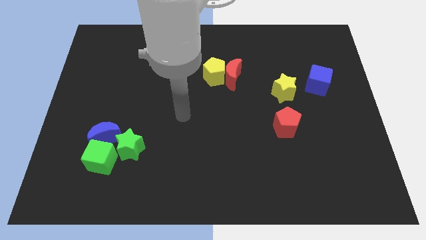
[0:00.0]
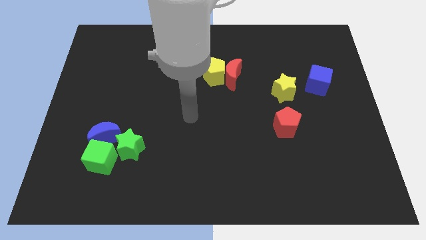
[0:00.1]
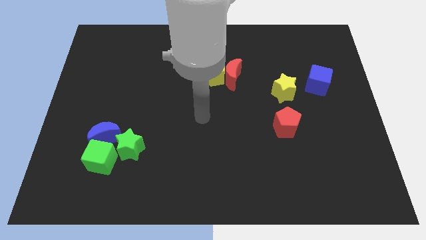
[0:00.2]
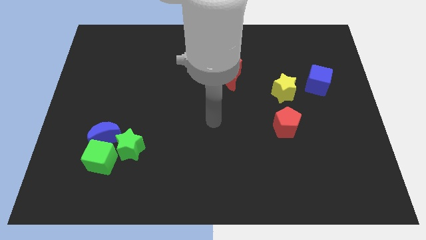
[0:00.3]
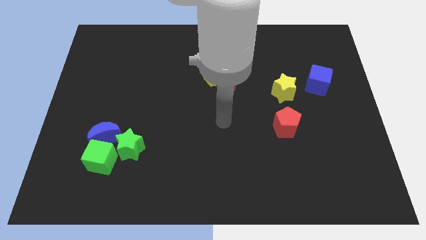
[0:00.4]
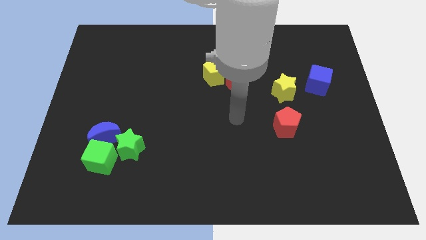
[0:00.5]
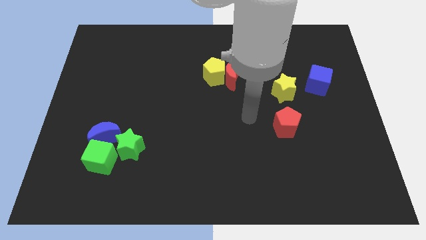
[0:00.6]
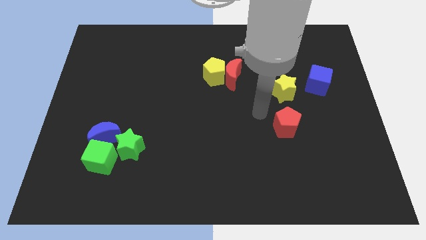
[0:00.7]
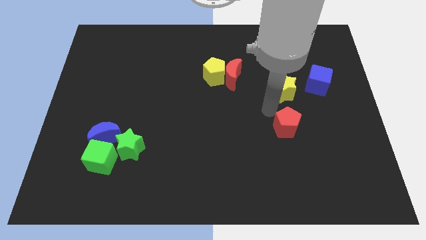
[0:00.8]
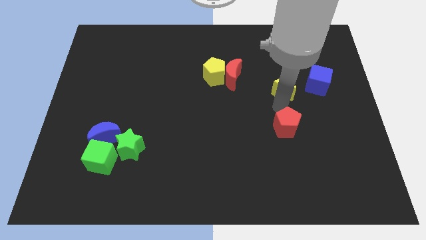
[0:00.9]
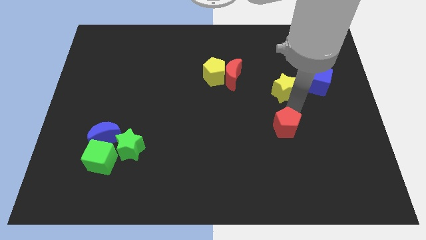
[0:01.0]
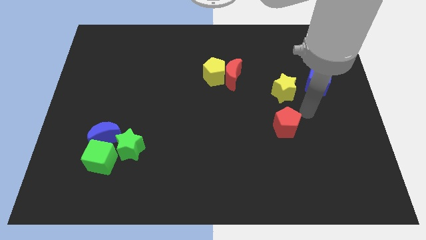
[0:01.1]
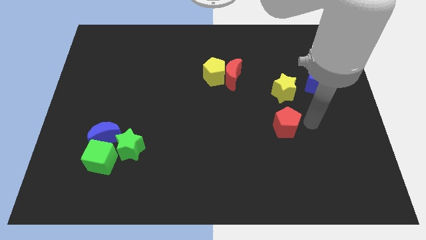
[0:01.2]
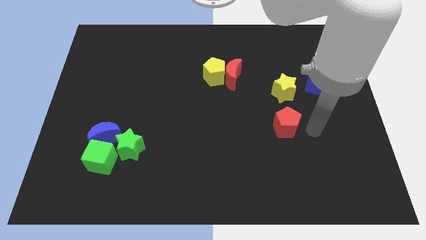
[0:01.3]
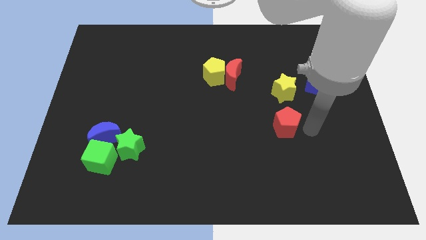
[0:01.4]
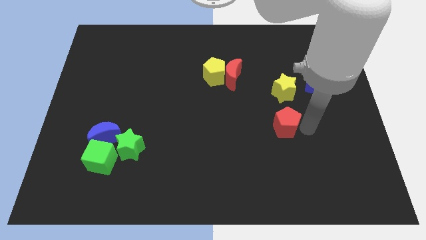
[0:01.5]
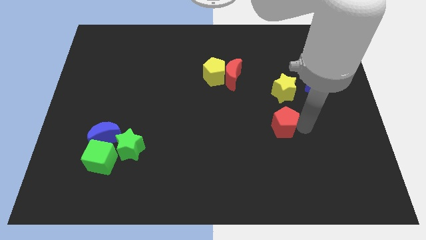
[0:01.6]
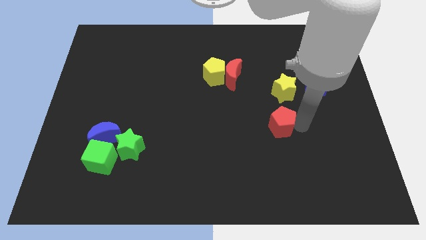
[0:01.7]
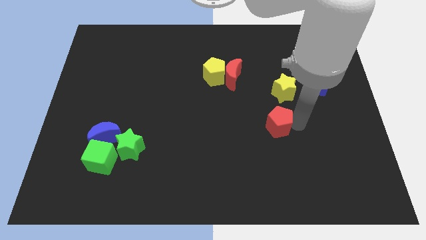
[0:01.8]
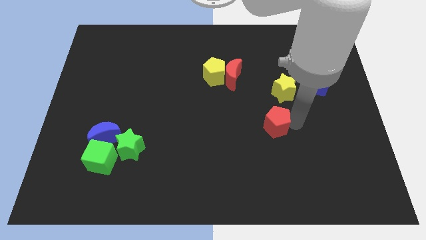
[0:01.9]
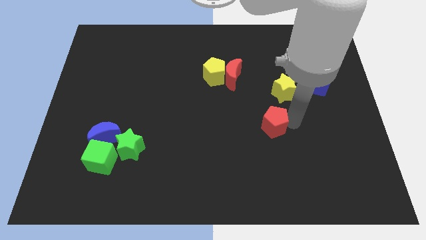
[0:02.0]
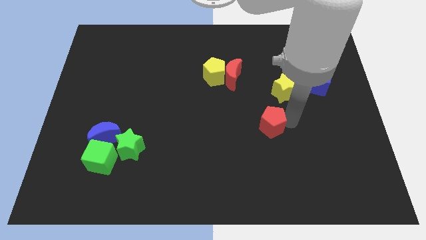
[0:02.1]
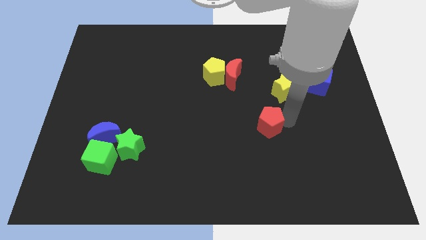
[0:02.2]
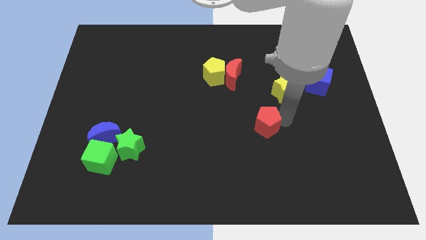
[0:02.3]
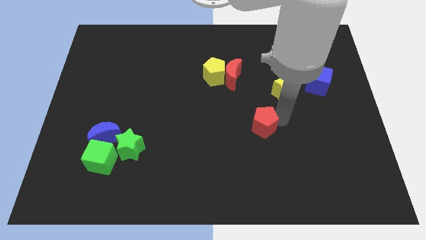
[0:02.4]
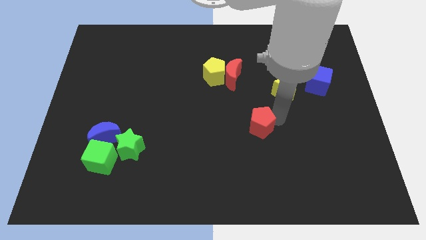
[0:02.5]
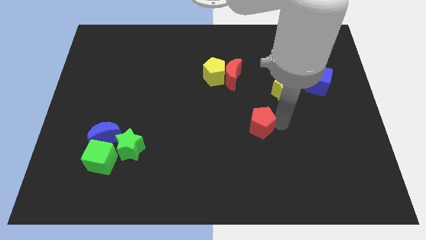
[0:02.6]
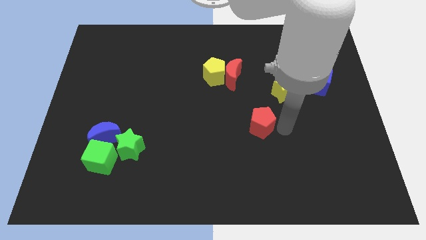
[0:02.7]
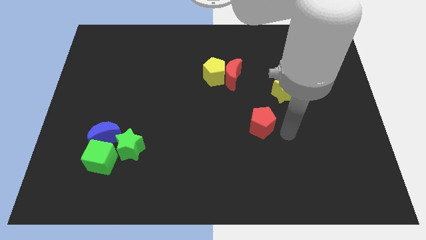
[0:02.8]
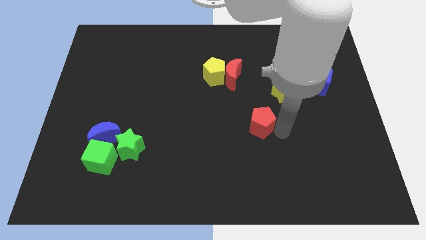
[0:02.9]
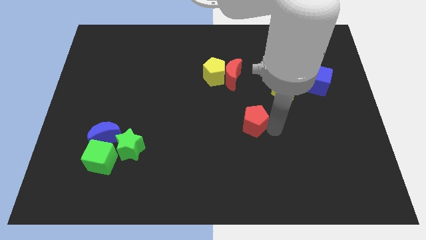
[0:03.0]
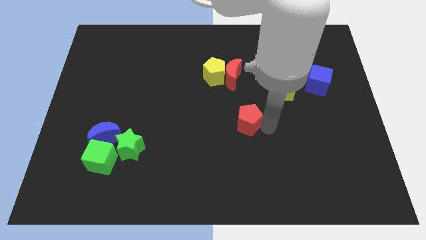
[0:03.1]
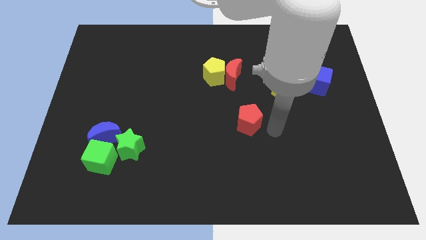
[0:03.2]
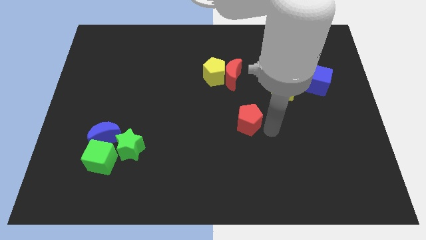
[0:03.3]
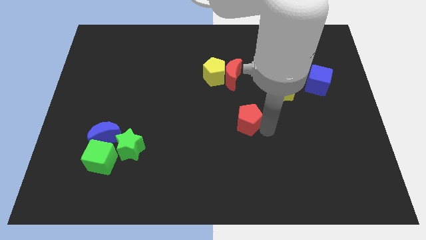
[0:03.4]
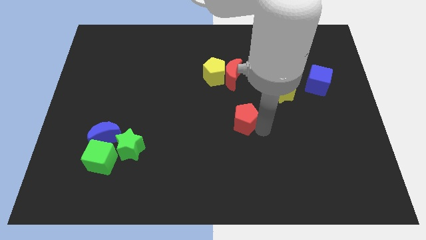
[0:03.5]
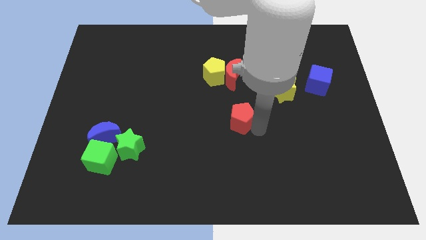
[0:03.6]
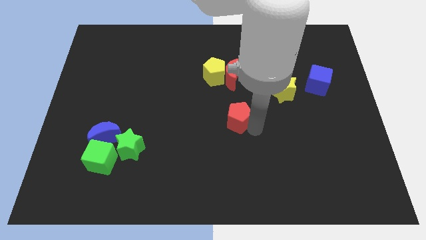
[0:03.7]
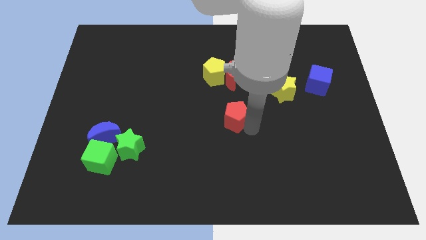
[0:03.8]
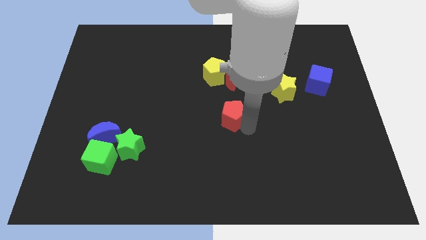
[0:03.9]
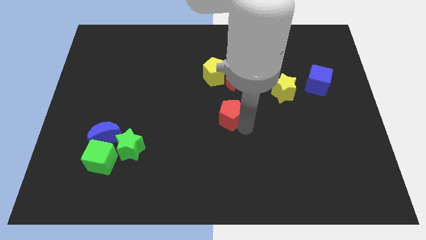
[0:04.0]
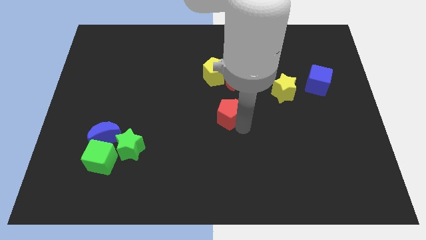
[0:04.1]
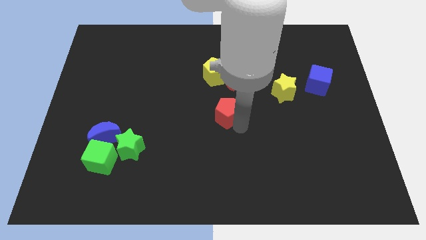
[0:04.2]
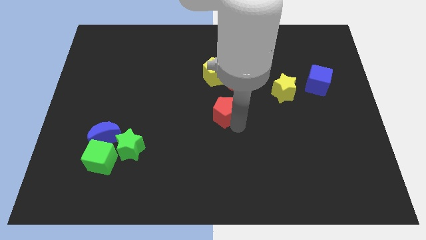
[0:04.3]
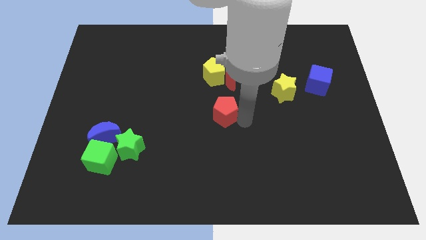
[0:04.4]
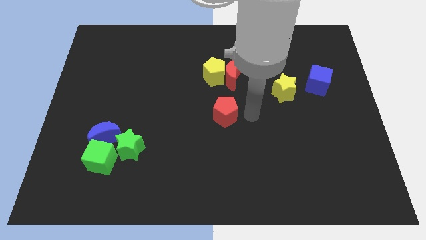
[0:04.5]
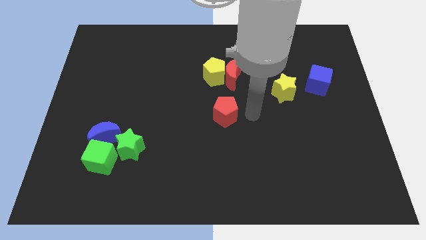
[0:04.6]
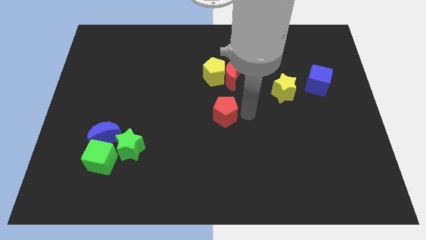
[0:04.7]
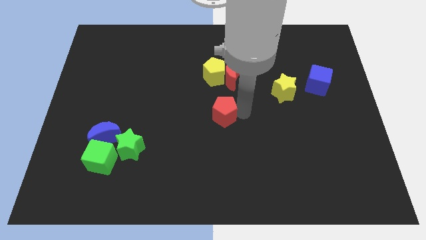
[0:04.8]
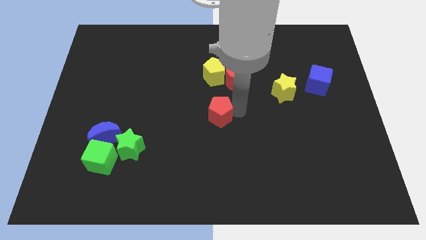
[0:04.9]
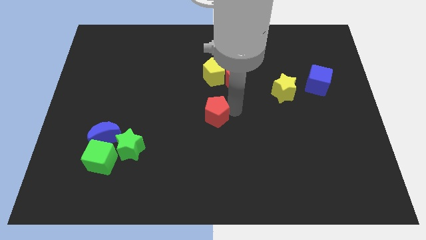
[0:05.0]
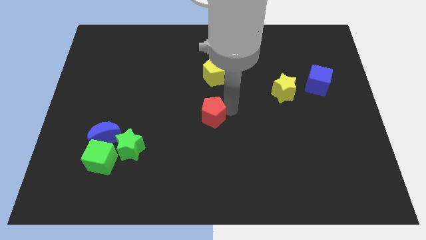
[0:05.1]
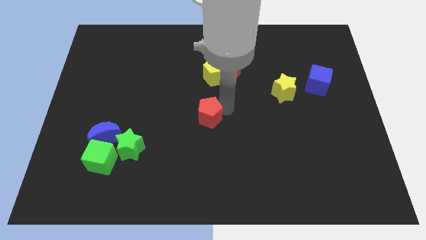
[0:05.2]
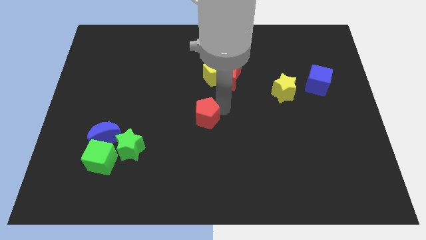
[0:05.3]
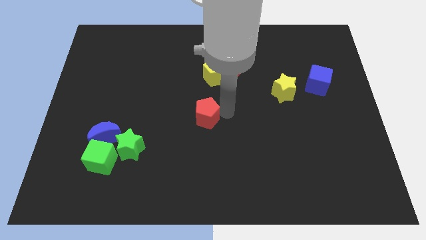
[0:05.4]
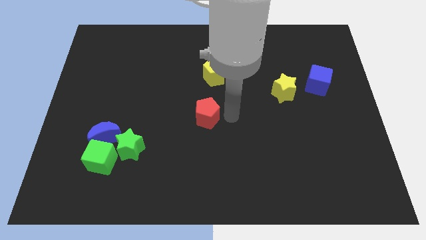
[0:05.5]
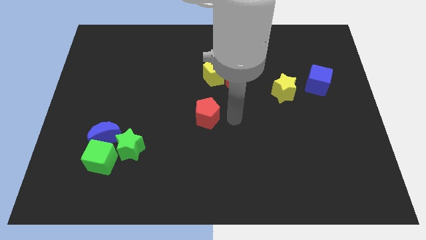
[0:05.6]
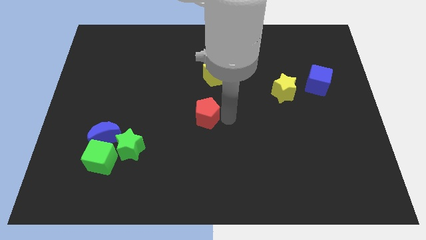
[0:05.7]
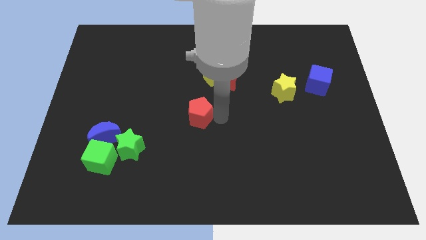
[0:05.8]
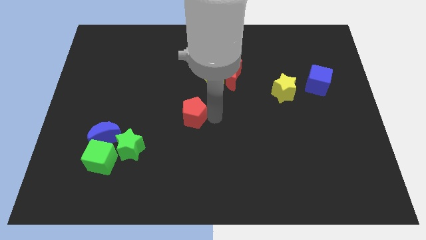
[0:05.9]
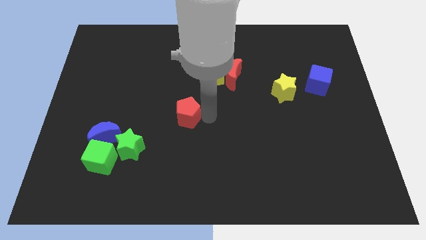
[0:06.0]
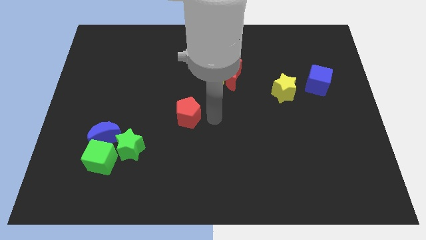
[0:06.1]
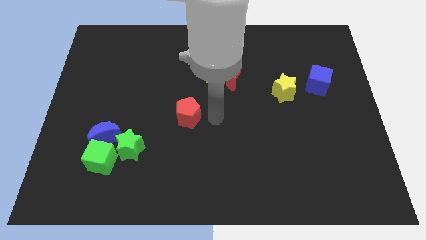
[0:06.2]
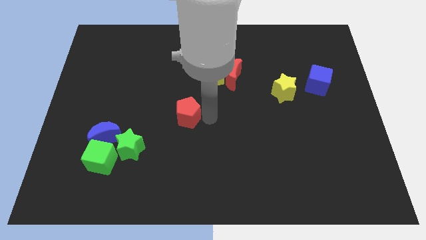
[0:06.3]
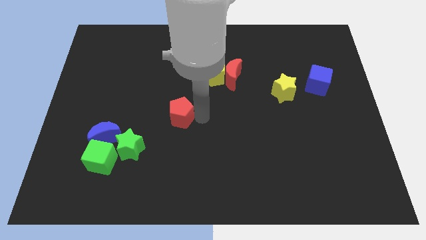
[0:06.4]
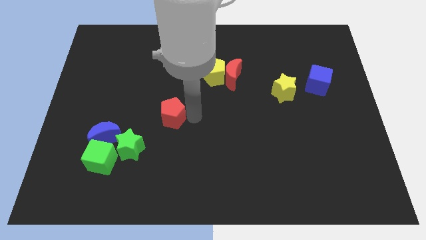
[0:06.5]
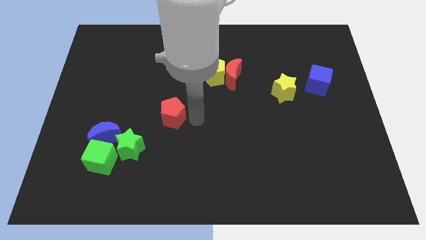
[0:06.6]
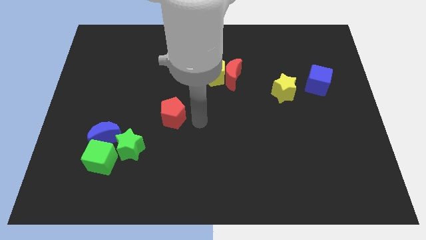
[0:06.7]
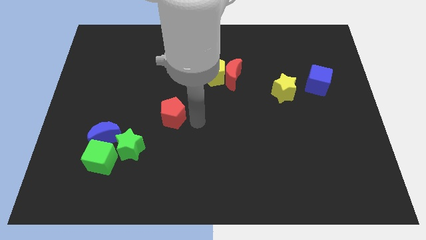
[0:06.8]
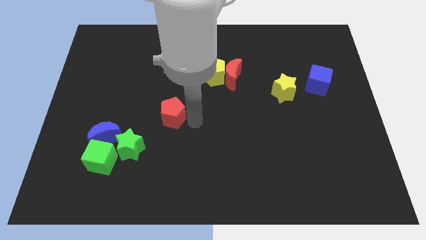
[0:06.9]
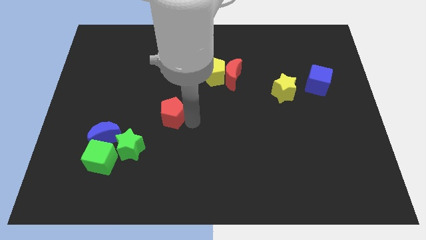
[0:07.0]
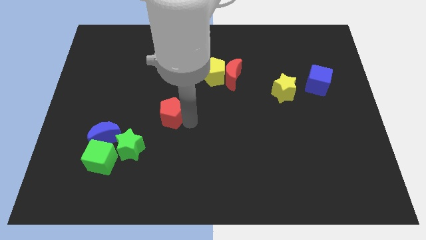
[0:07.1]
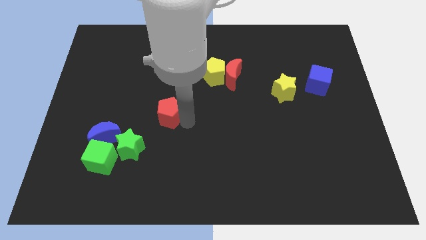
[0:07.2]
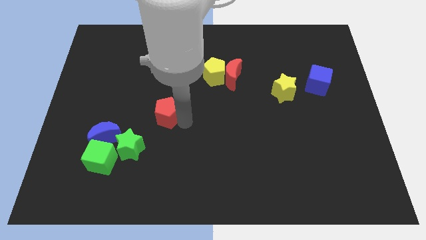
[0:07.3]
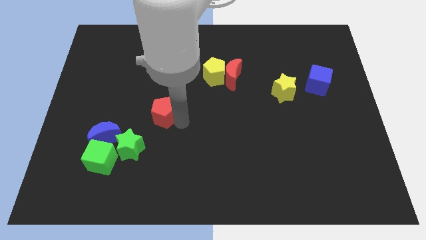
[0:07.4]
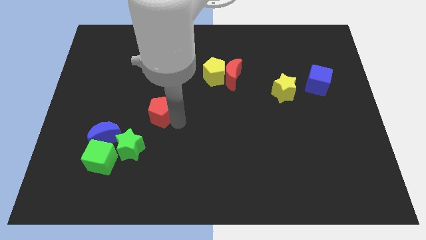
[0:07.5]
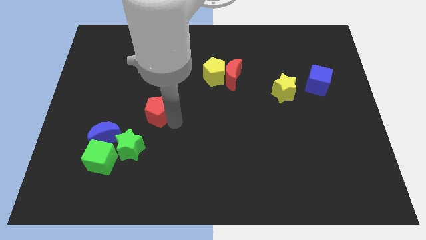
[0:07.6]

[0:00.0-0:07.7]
push the red pentagon to the top of the green star
